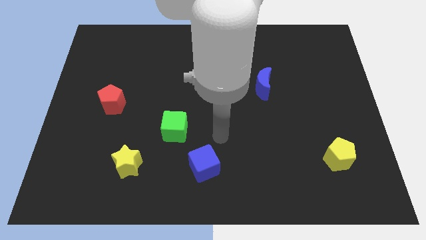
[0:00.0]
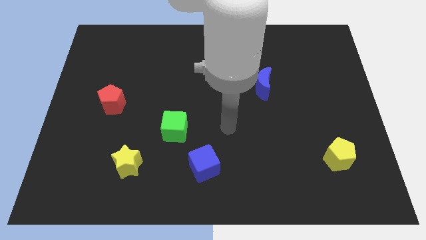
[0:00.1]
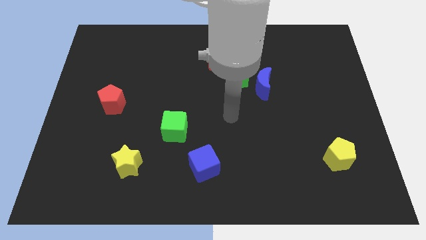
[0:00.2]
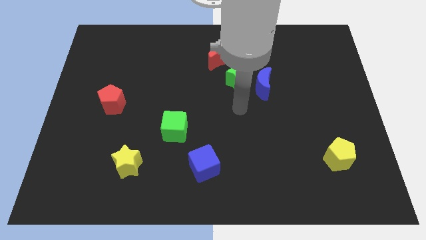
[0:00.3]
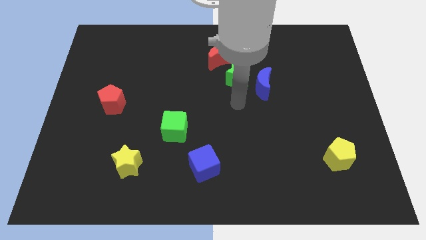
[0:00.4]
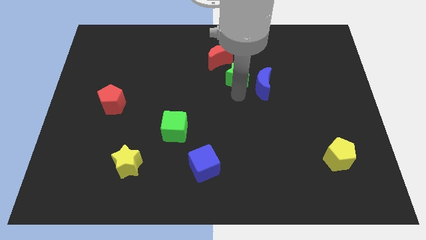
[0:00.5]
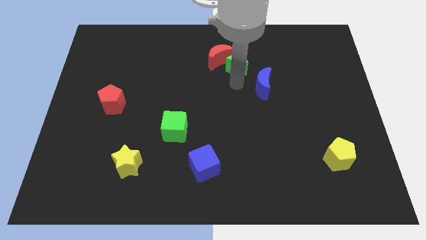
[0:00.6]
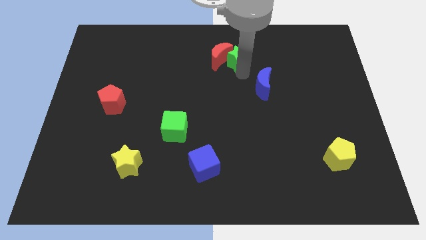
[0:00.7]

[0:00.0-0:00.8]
separate the blue moon from the green star

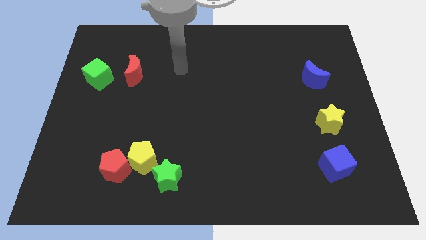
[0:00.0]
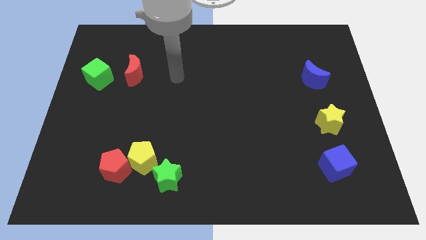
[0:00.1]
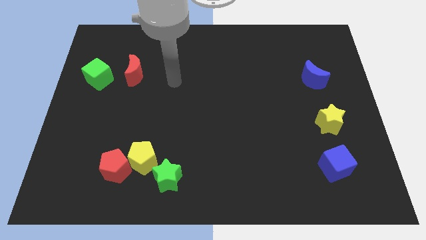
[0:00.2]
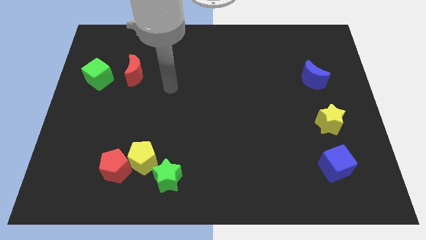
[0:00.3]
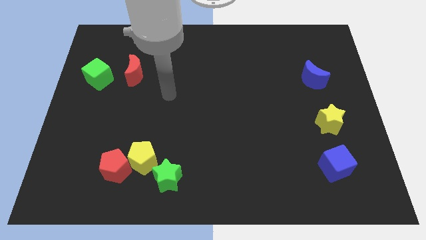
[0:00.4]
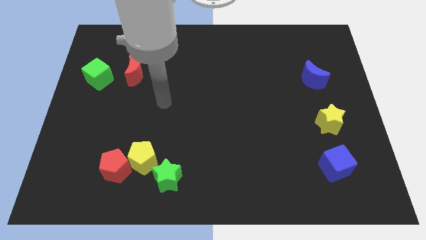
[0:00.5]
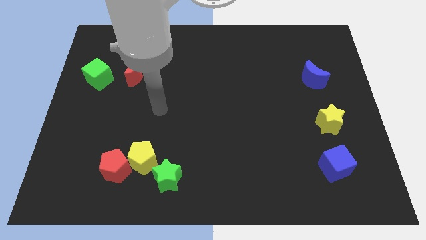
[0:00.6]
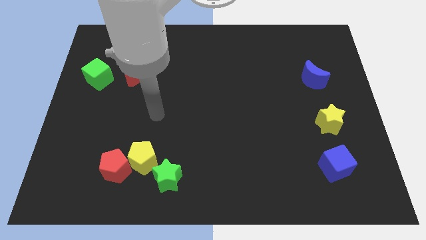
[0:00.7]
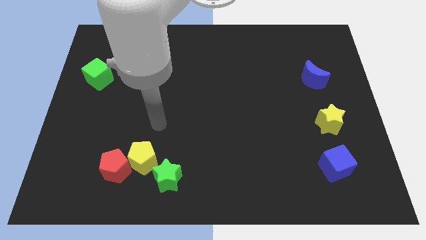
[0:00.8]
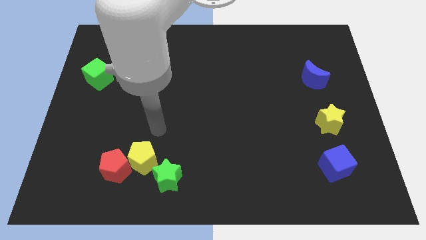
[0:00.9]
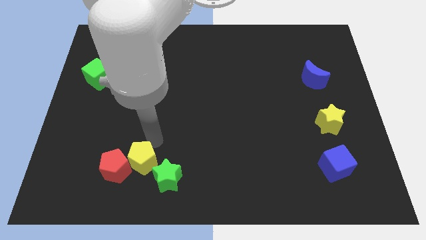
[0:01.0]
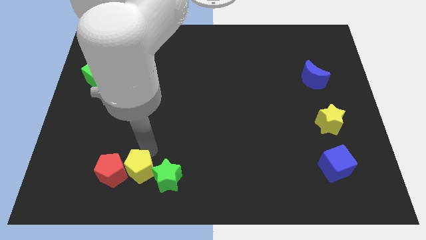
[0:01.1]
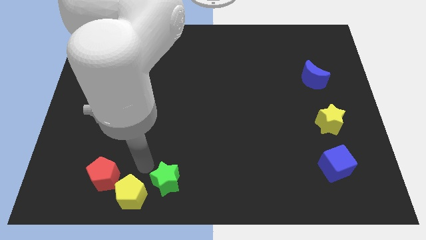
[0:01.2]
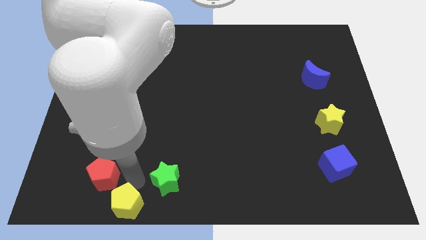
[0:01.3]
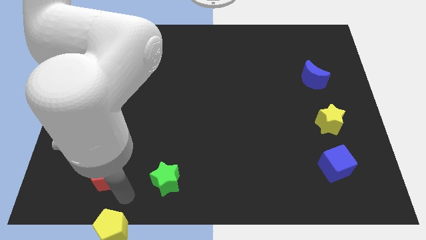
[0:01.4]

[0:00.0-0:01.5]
move the red pentagon away from the yellow pentagon

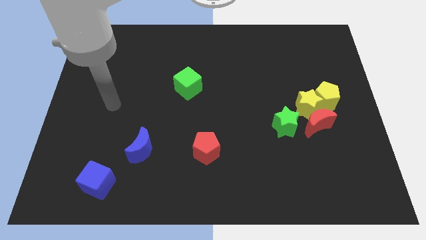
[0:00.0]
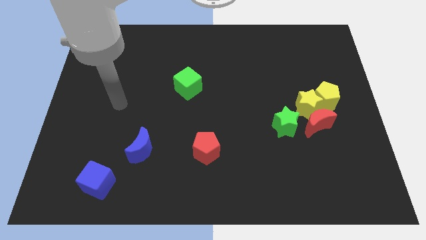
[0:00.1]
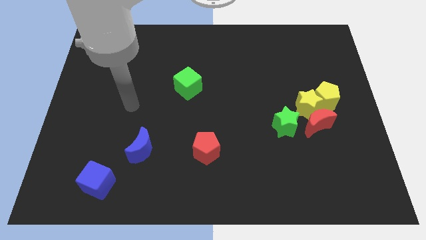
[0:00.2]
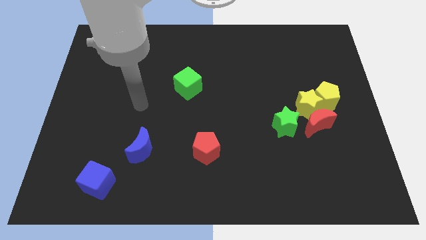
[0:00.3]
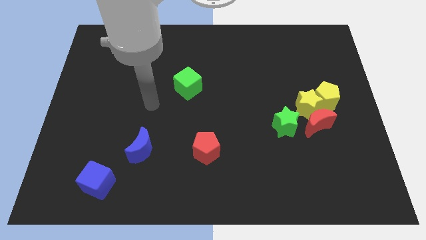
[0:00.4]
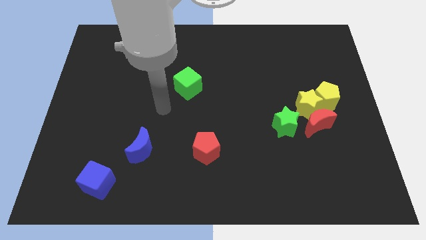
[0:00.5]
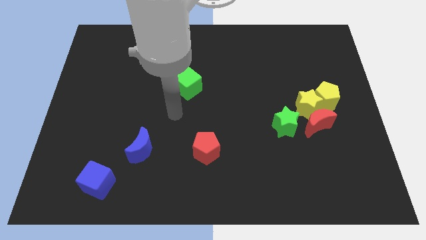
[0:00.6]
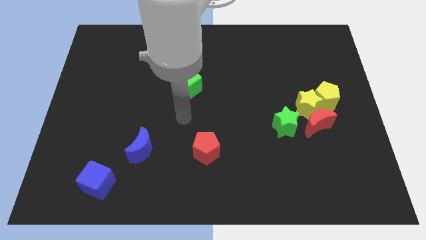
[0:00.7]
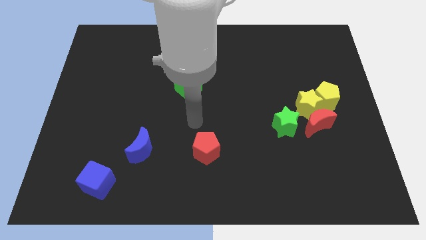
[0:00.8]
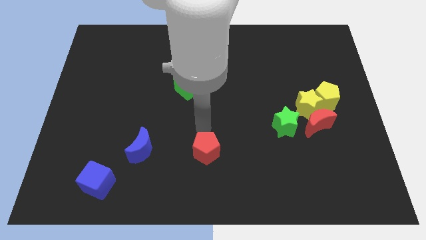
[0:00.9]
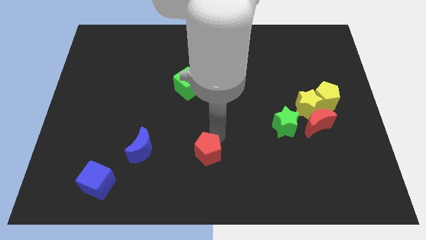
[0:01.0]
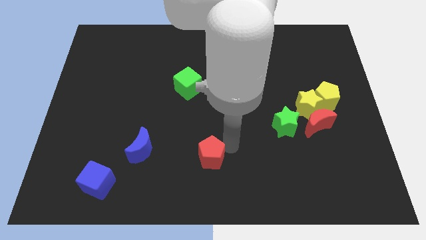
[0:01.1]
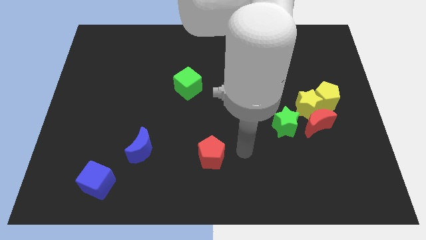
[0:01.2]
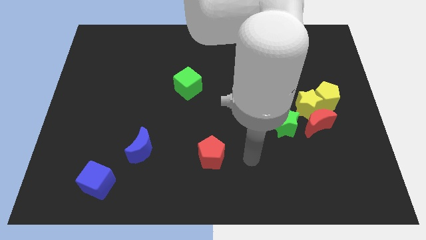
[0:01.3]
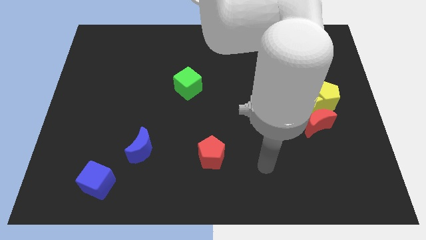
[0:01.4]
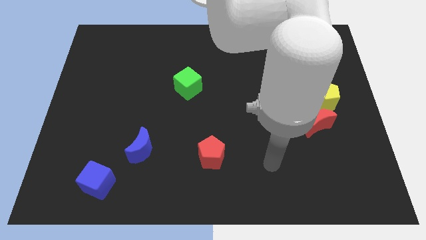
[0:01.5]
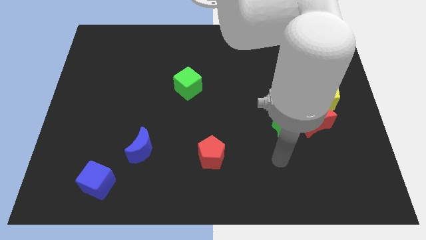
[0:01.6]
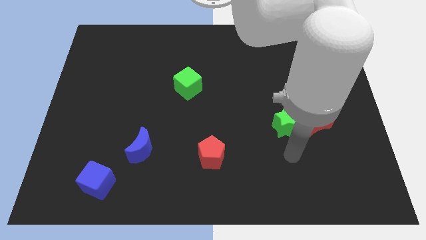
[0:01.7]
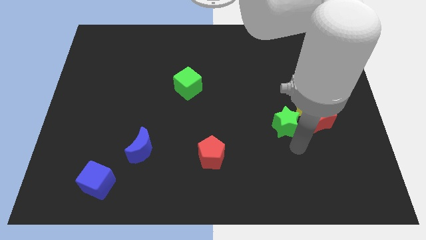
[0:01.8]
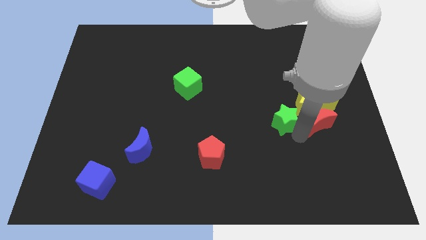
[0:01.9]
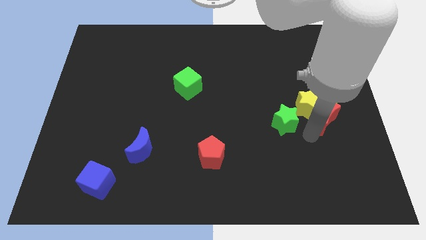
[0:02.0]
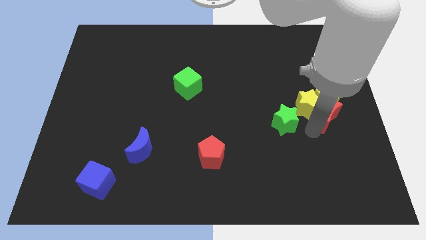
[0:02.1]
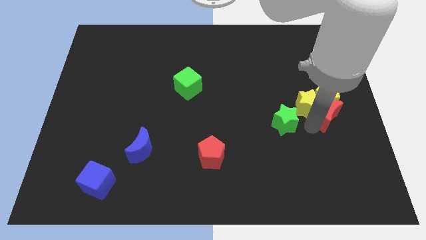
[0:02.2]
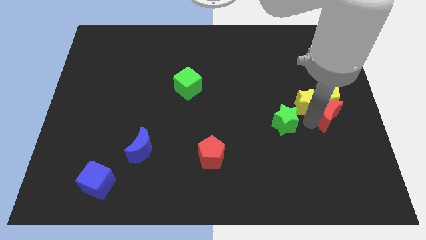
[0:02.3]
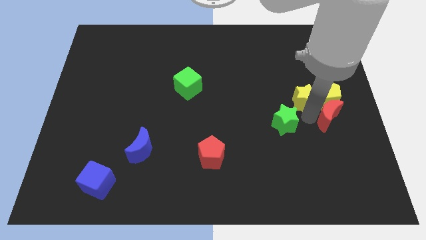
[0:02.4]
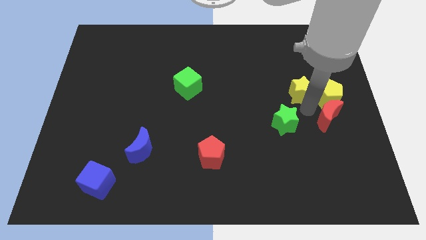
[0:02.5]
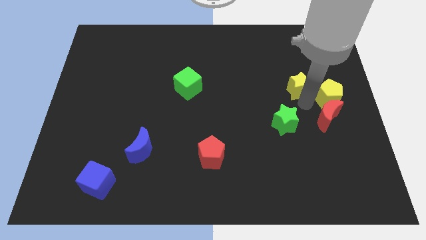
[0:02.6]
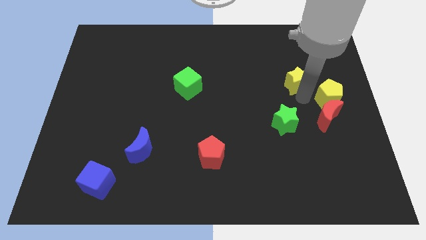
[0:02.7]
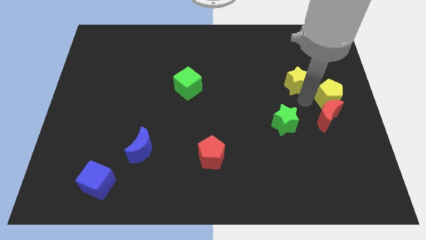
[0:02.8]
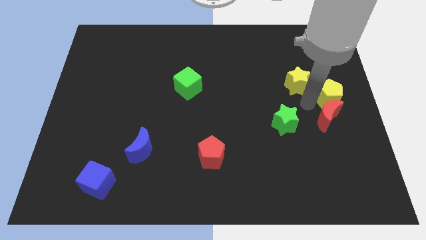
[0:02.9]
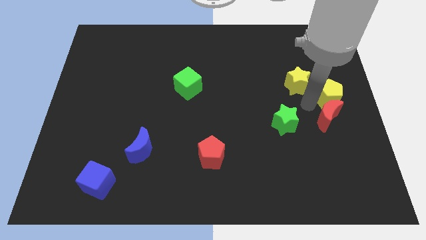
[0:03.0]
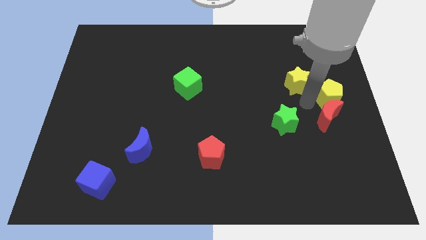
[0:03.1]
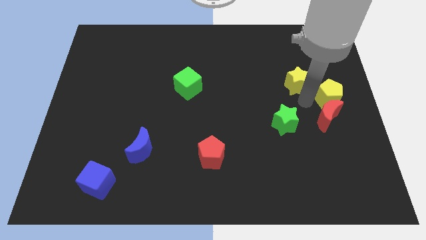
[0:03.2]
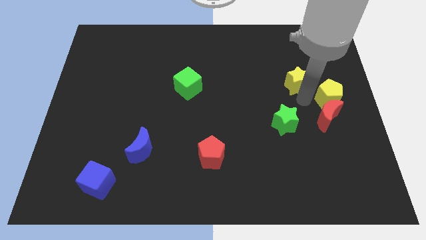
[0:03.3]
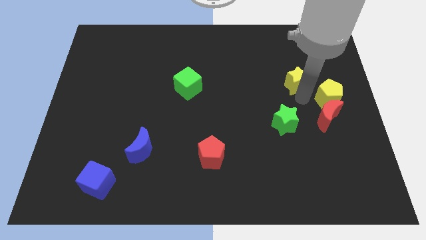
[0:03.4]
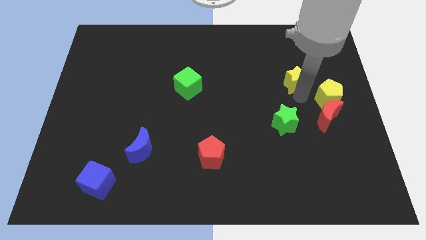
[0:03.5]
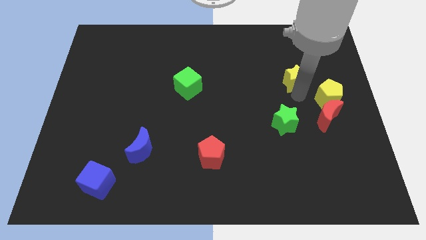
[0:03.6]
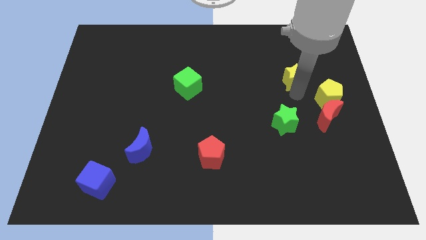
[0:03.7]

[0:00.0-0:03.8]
pull the yellow star apart from the red moon, yellow pentagon, and green star

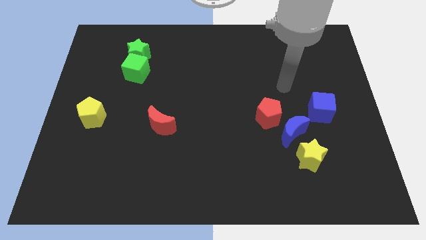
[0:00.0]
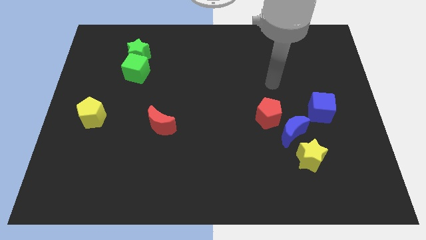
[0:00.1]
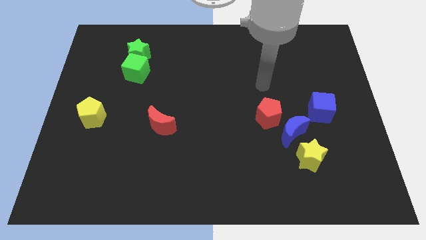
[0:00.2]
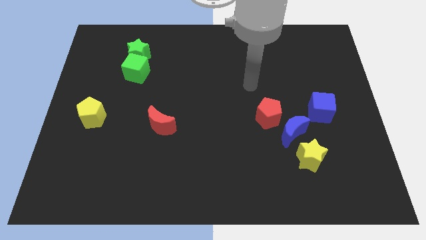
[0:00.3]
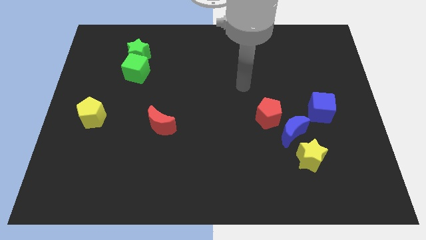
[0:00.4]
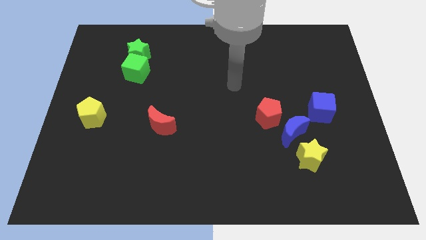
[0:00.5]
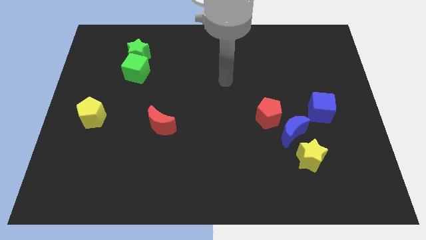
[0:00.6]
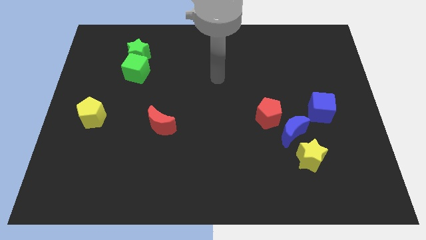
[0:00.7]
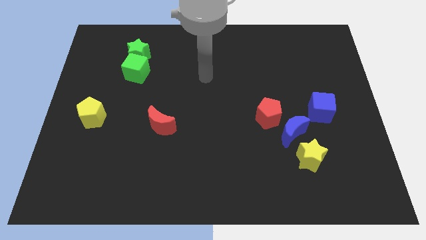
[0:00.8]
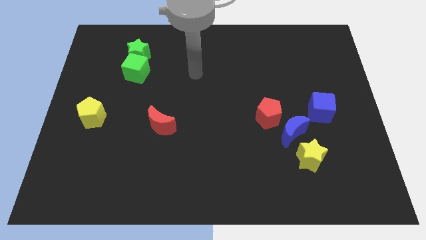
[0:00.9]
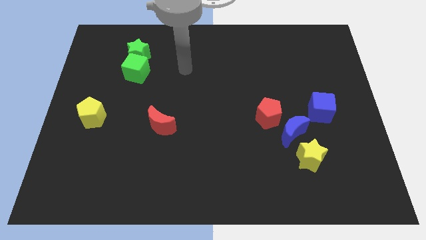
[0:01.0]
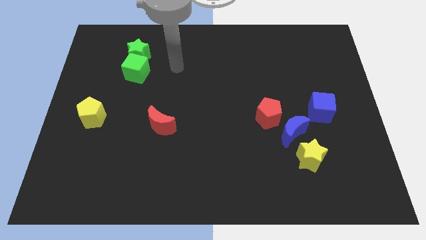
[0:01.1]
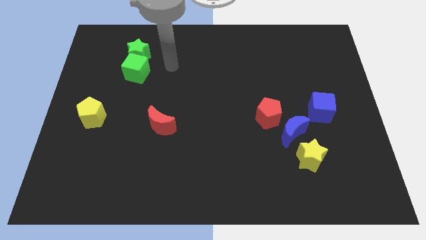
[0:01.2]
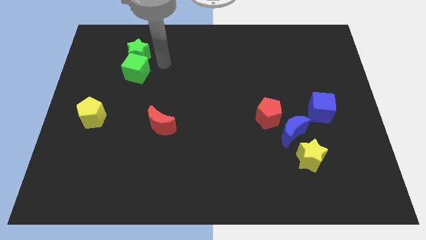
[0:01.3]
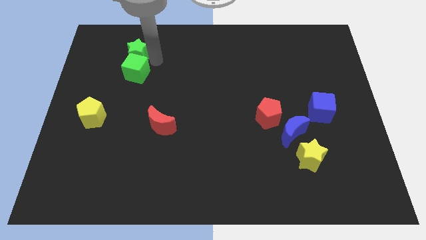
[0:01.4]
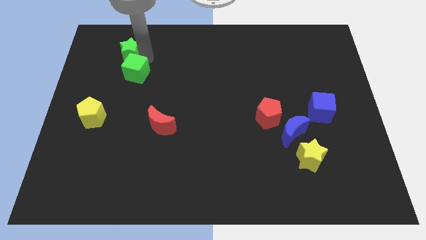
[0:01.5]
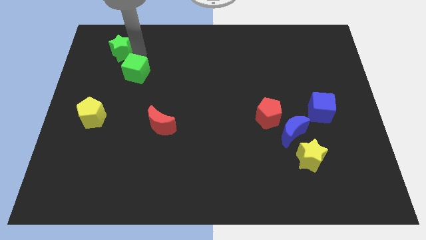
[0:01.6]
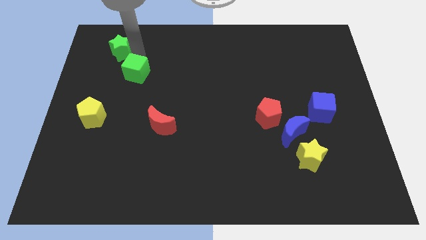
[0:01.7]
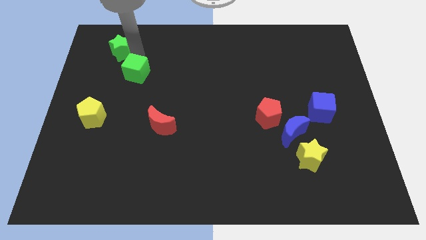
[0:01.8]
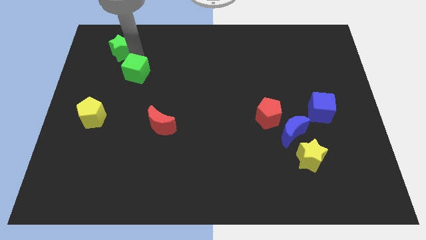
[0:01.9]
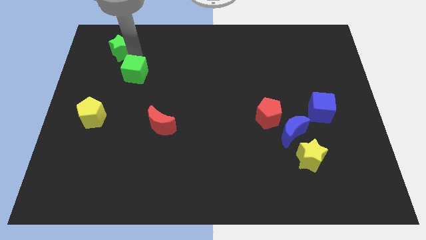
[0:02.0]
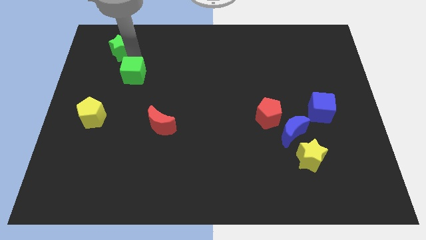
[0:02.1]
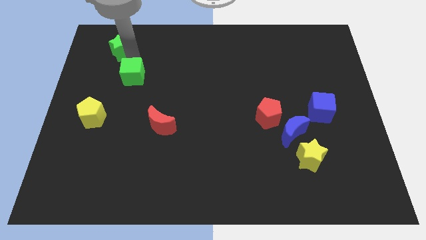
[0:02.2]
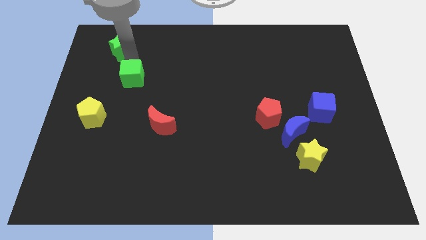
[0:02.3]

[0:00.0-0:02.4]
separate the green cube from the green star

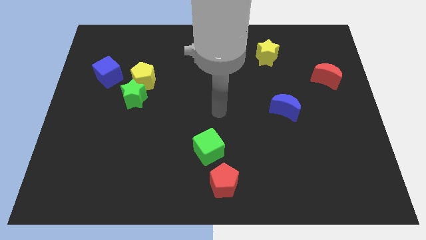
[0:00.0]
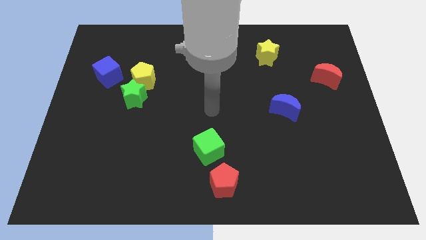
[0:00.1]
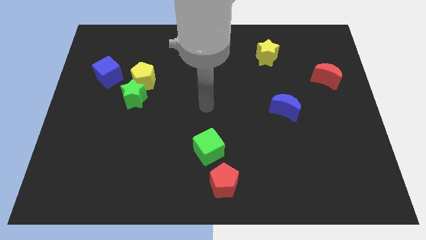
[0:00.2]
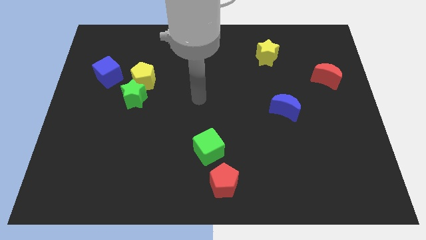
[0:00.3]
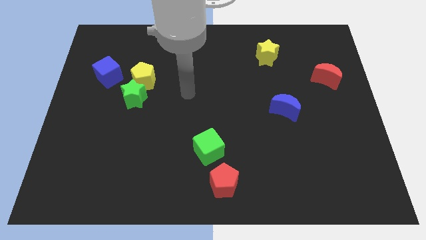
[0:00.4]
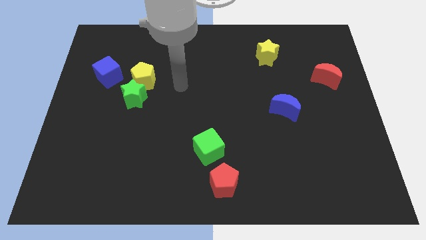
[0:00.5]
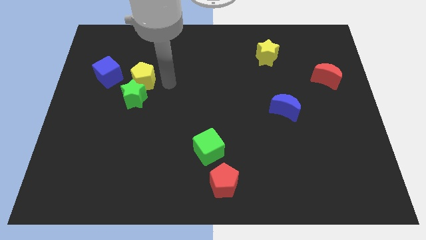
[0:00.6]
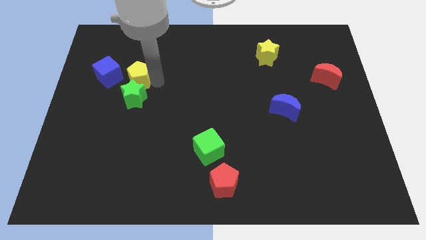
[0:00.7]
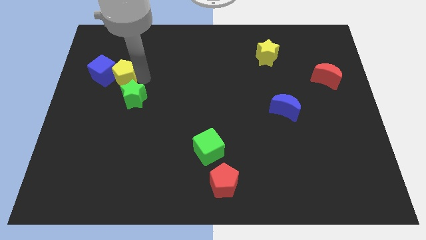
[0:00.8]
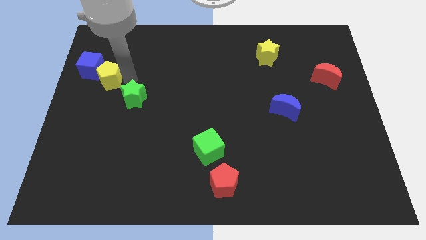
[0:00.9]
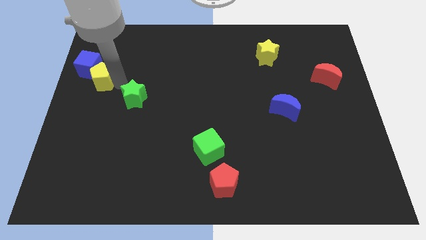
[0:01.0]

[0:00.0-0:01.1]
move the green star away from the yellow pentagon
